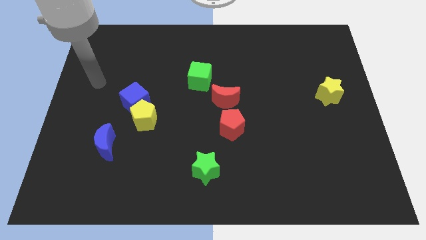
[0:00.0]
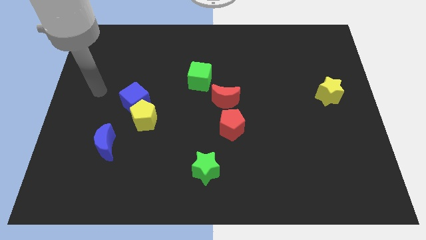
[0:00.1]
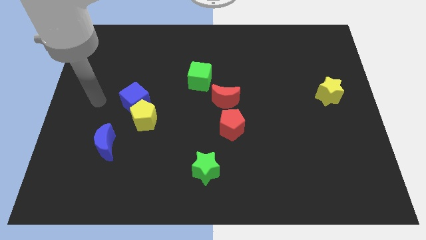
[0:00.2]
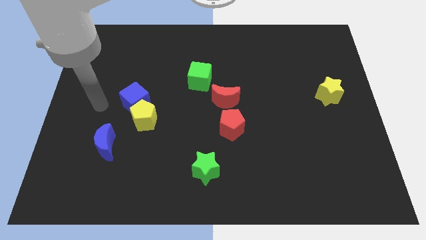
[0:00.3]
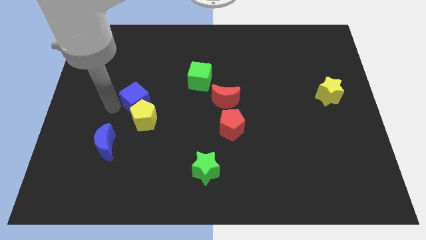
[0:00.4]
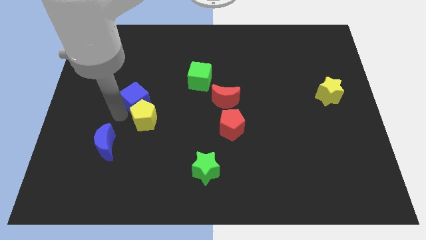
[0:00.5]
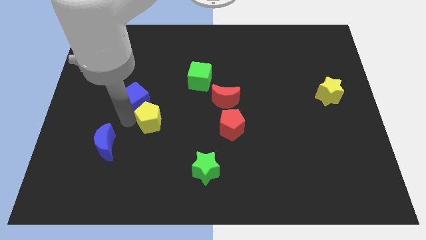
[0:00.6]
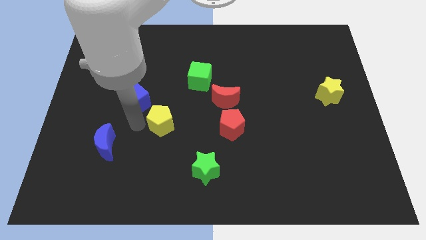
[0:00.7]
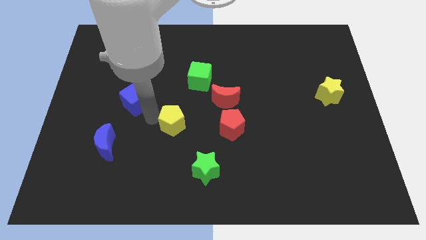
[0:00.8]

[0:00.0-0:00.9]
pull the blue cube apart from the yellow pentagon

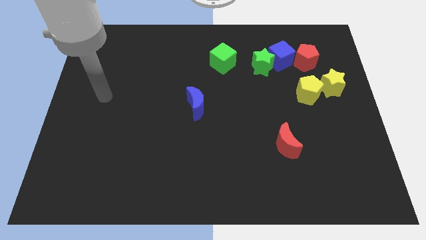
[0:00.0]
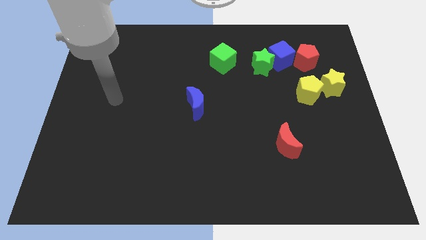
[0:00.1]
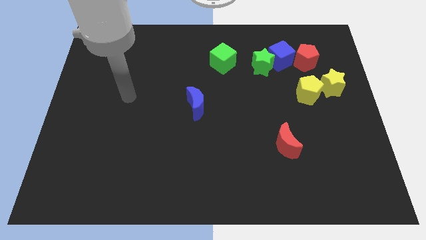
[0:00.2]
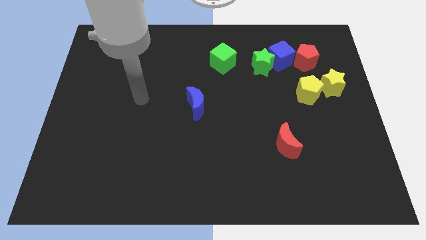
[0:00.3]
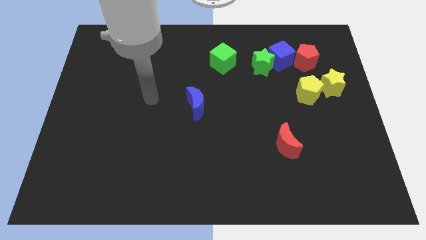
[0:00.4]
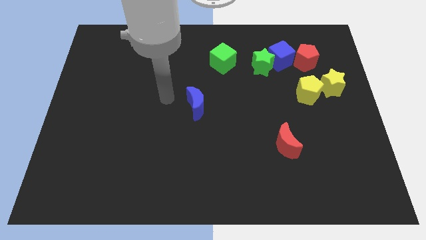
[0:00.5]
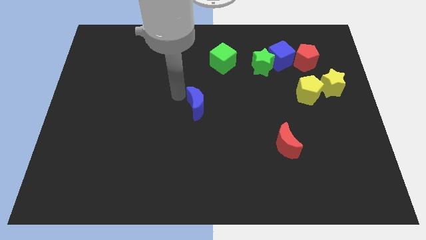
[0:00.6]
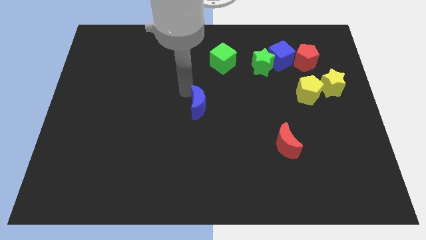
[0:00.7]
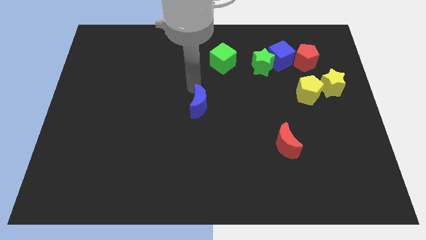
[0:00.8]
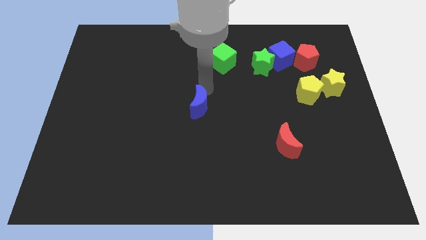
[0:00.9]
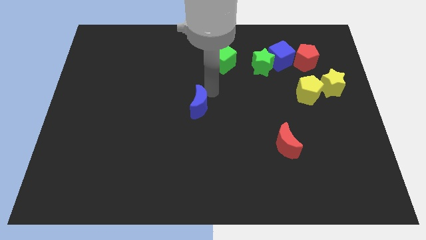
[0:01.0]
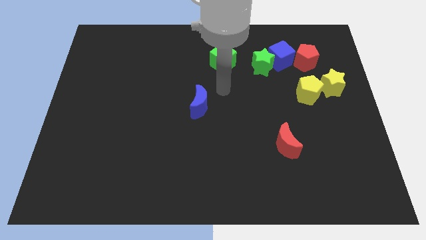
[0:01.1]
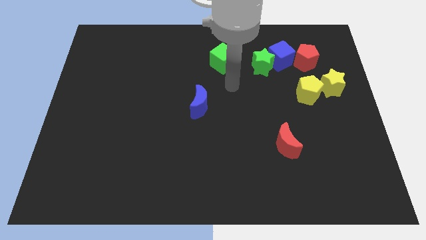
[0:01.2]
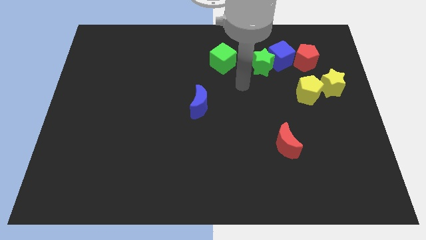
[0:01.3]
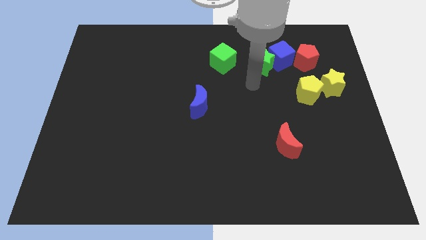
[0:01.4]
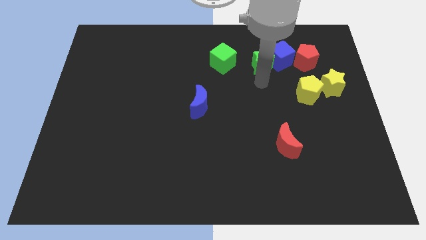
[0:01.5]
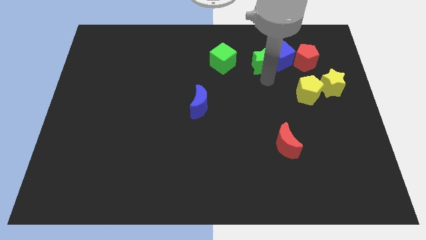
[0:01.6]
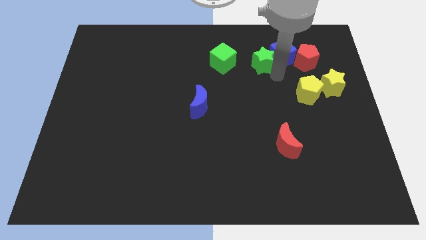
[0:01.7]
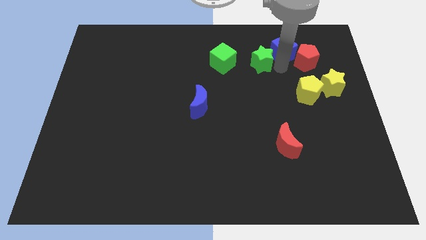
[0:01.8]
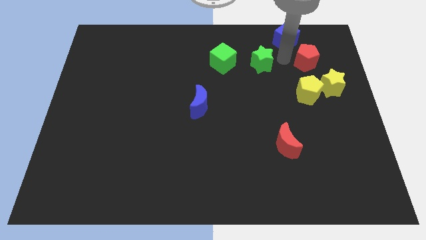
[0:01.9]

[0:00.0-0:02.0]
move the green star away from the blue cube

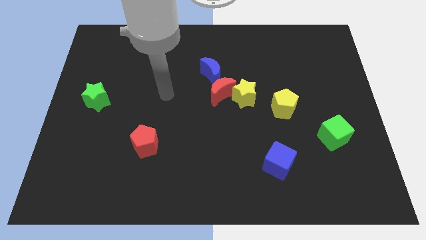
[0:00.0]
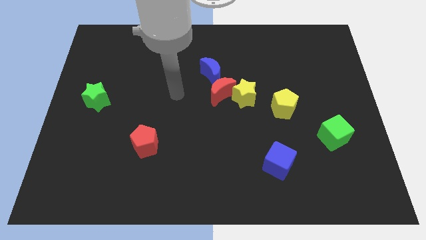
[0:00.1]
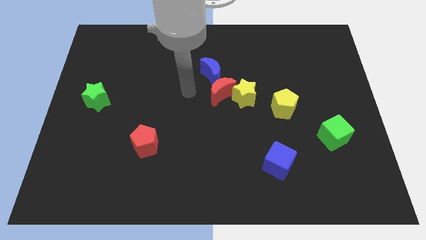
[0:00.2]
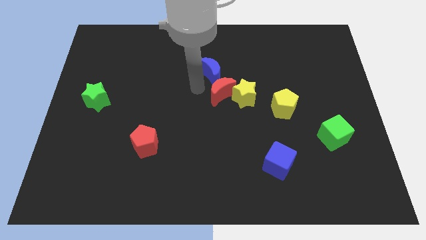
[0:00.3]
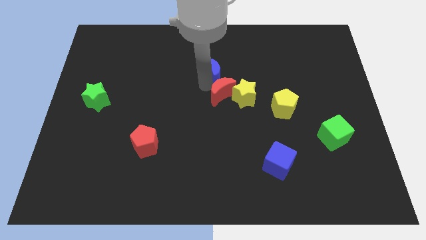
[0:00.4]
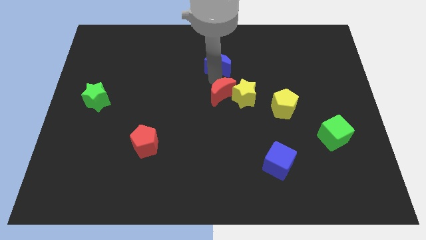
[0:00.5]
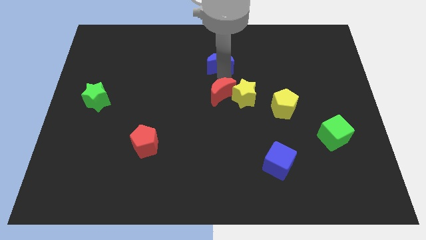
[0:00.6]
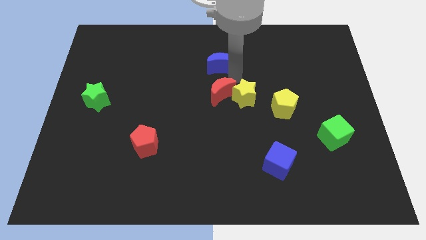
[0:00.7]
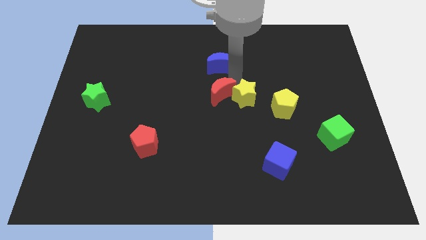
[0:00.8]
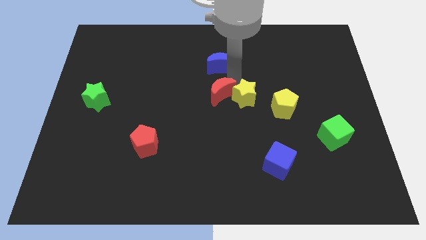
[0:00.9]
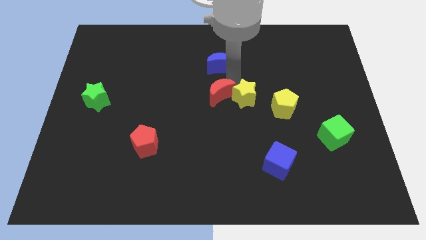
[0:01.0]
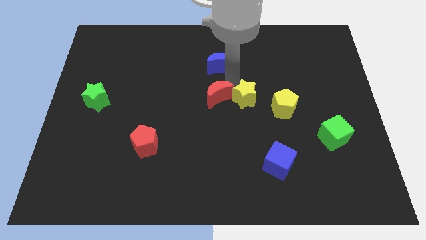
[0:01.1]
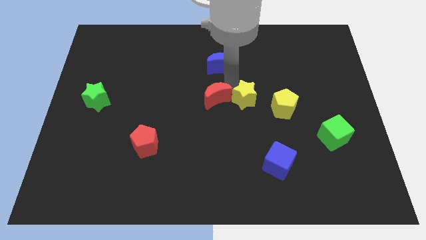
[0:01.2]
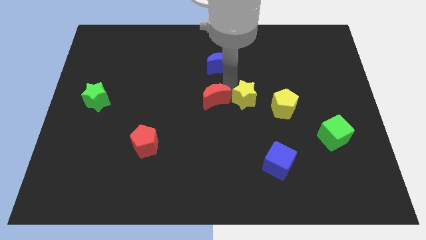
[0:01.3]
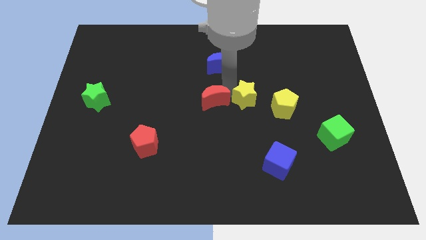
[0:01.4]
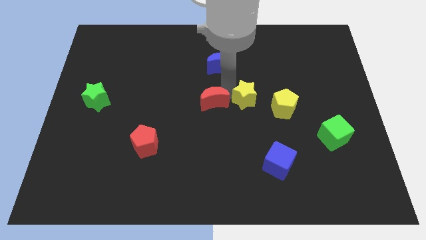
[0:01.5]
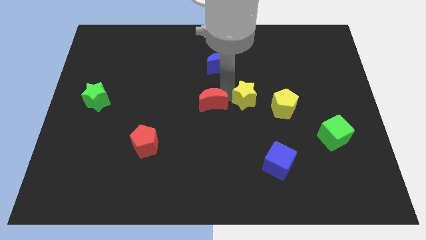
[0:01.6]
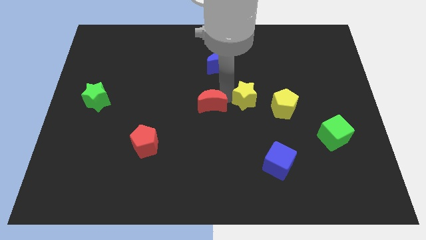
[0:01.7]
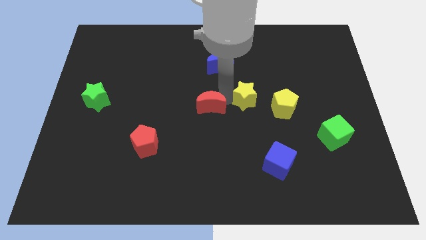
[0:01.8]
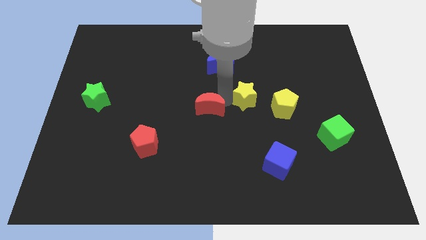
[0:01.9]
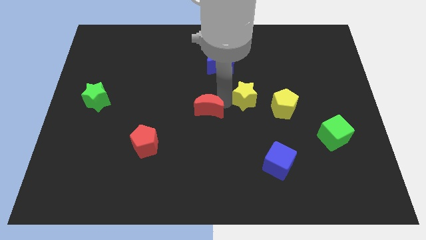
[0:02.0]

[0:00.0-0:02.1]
pull the red moon apart from the yellow star and blue moon

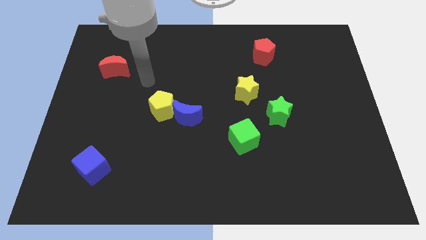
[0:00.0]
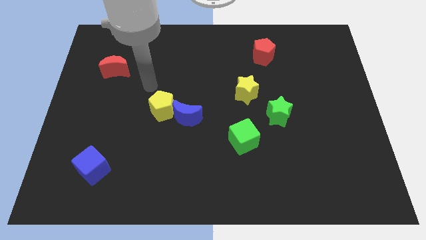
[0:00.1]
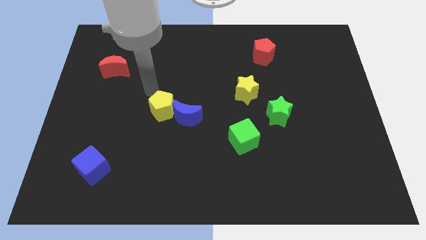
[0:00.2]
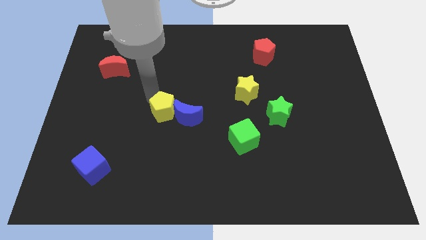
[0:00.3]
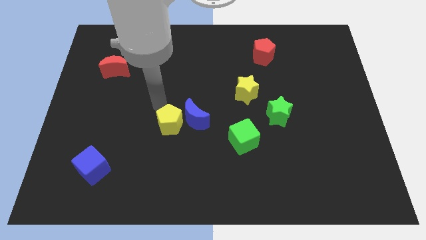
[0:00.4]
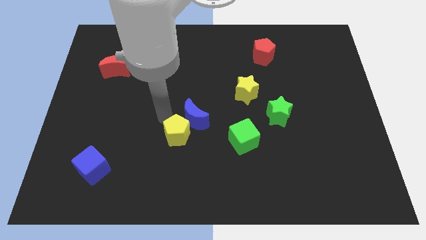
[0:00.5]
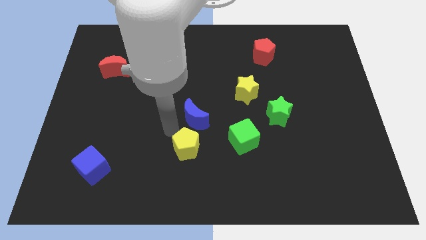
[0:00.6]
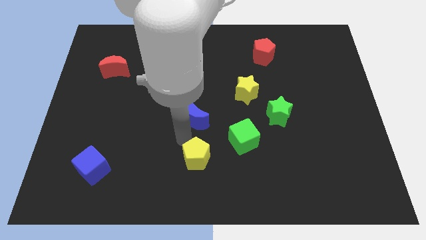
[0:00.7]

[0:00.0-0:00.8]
separate the blue moon from the yellow pentagon

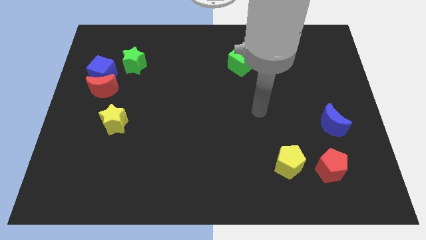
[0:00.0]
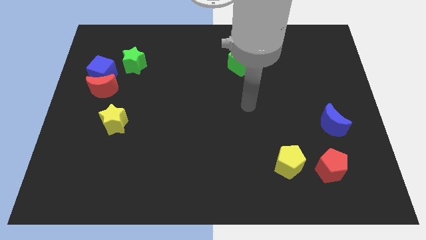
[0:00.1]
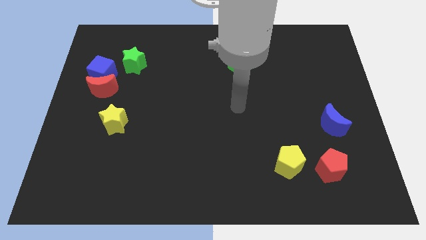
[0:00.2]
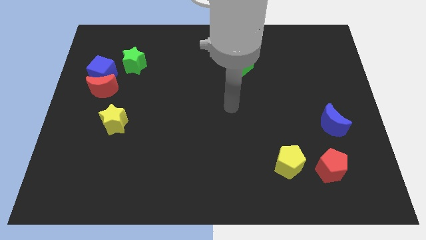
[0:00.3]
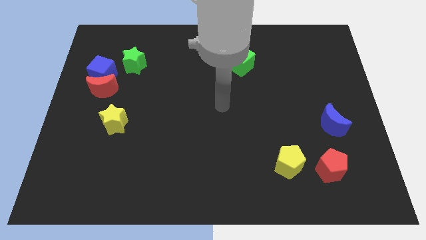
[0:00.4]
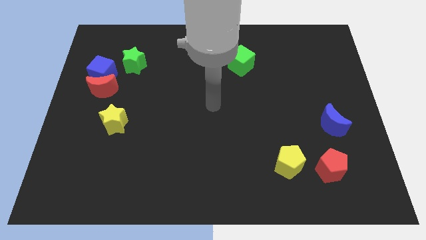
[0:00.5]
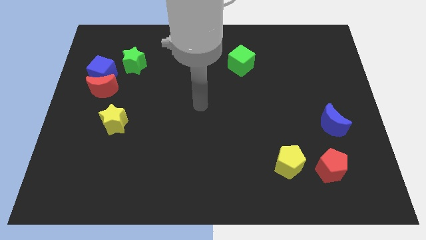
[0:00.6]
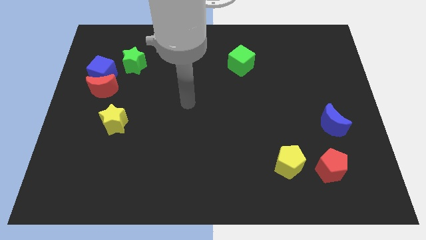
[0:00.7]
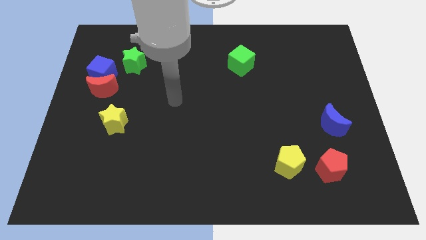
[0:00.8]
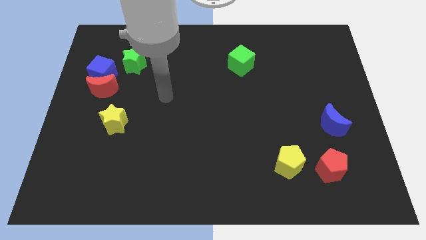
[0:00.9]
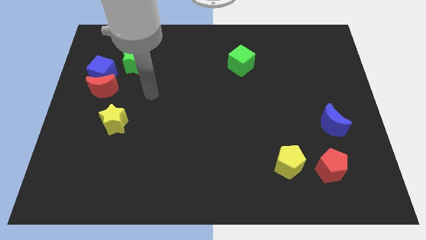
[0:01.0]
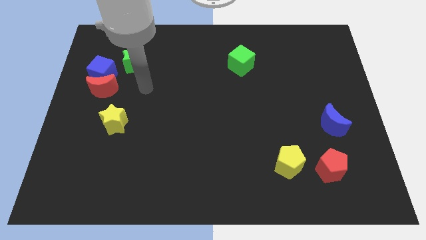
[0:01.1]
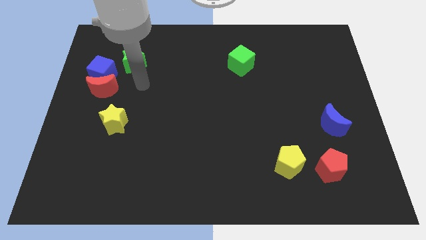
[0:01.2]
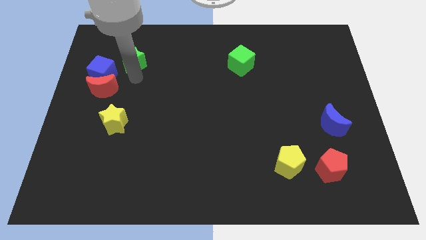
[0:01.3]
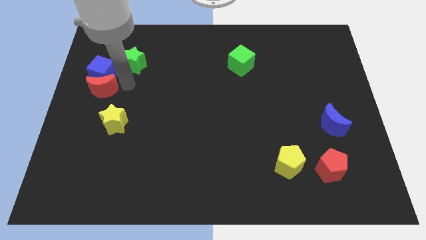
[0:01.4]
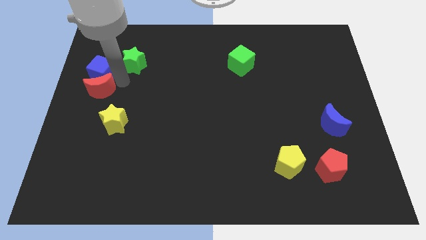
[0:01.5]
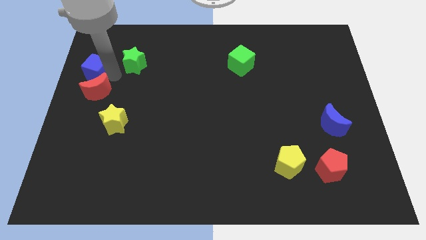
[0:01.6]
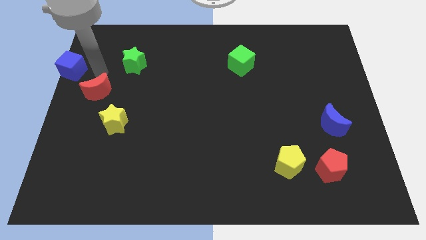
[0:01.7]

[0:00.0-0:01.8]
pull the red moon apart from the blue cube

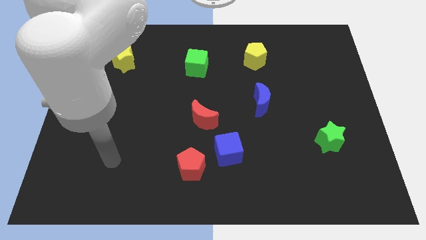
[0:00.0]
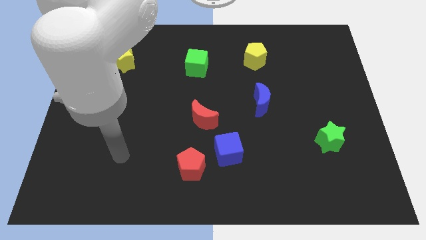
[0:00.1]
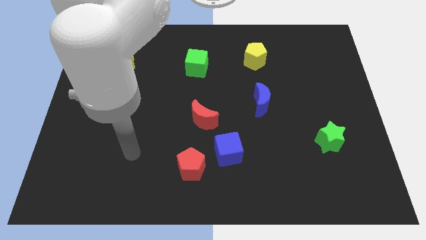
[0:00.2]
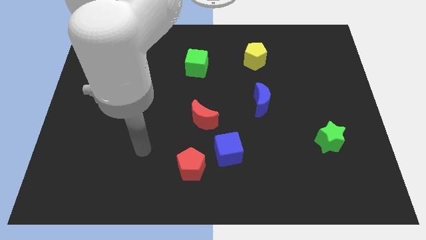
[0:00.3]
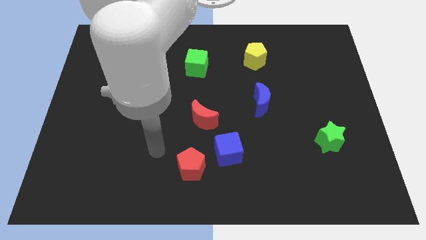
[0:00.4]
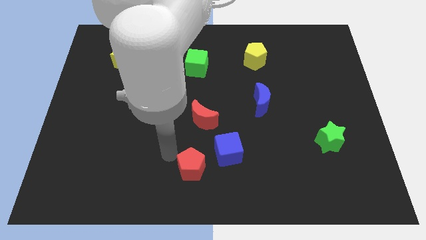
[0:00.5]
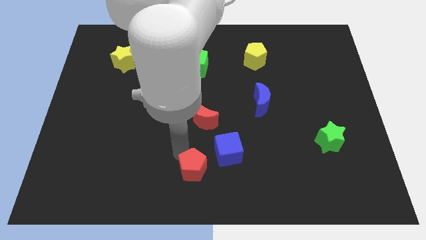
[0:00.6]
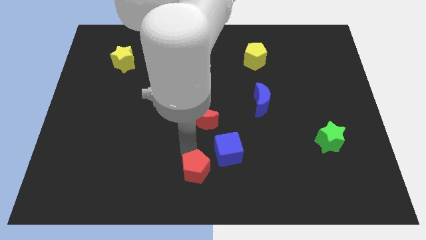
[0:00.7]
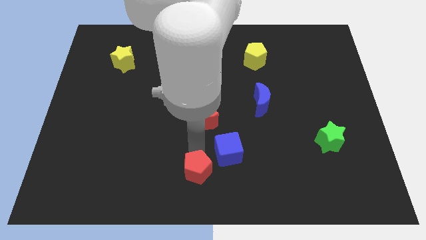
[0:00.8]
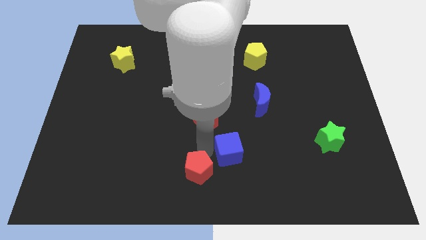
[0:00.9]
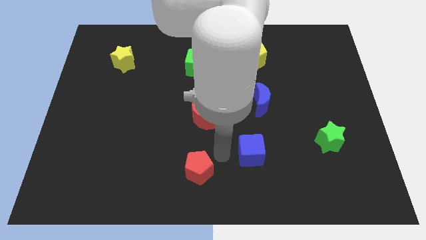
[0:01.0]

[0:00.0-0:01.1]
separate the red pentagon from the blue cube

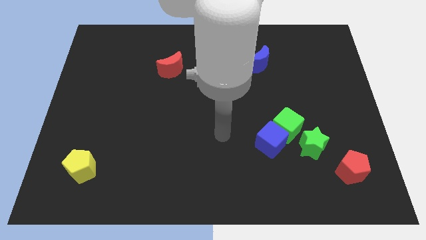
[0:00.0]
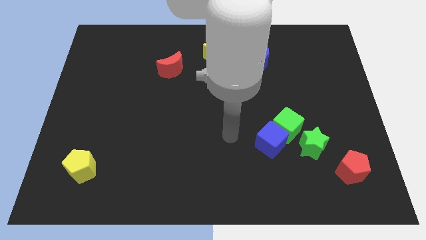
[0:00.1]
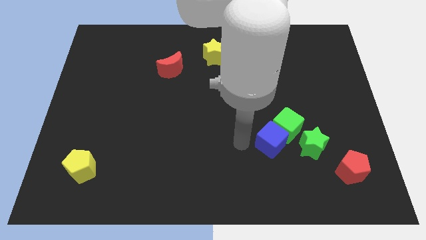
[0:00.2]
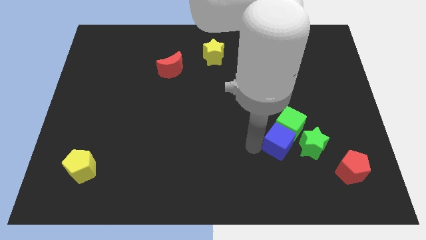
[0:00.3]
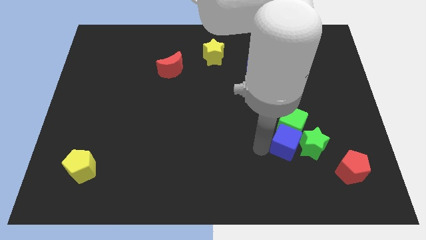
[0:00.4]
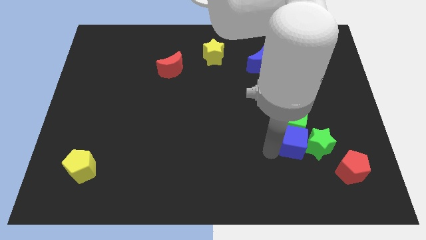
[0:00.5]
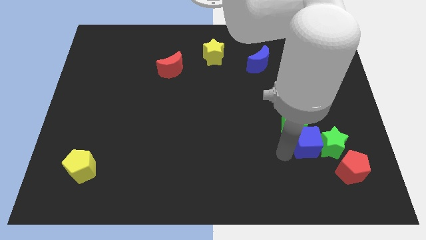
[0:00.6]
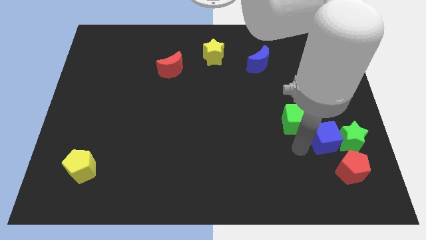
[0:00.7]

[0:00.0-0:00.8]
pull the green cube apart from the blue cube and green star

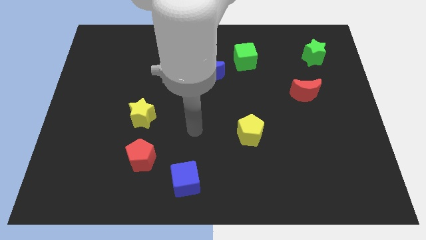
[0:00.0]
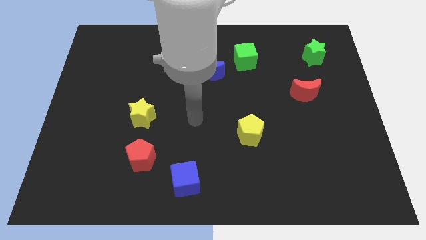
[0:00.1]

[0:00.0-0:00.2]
separate the blue moon from the green cube
